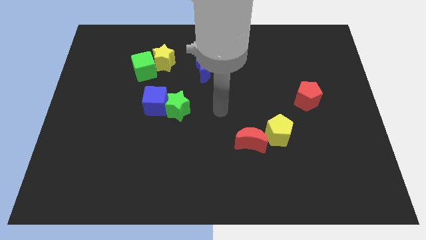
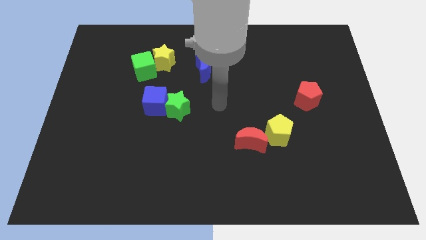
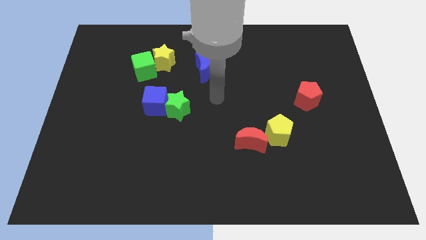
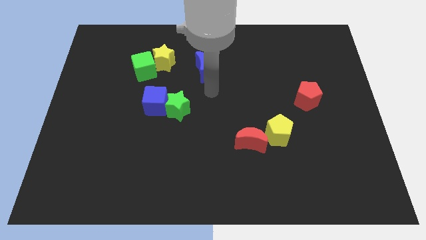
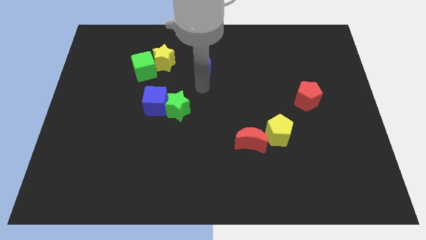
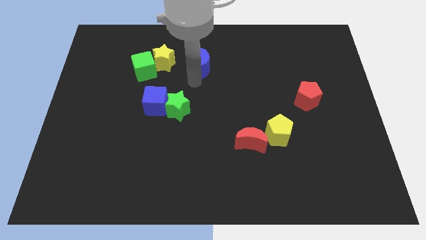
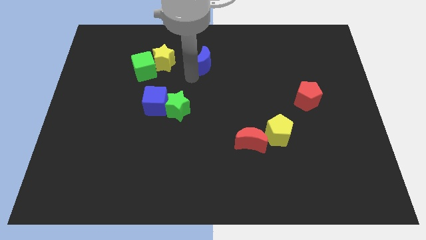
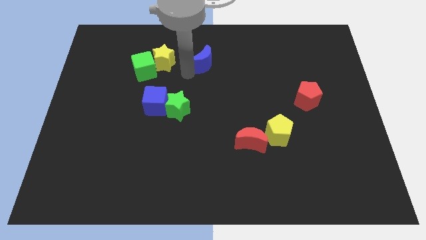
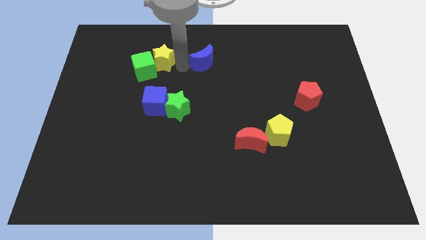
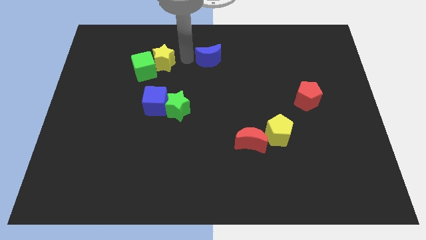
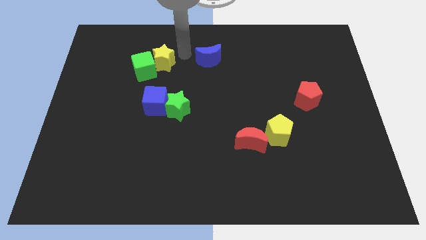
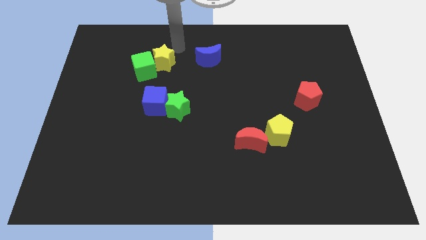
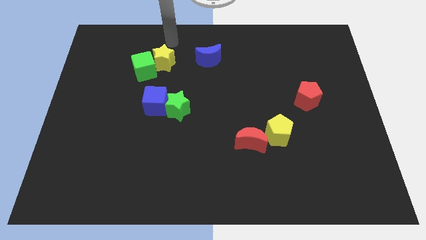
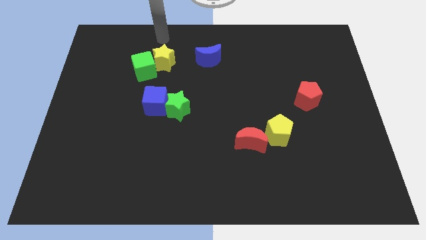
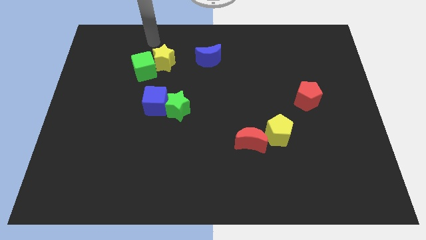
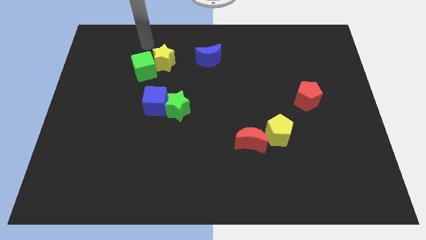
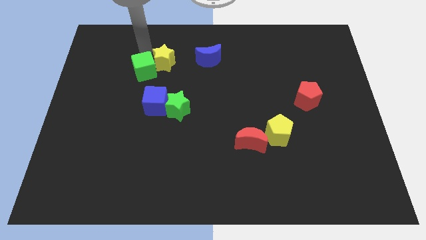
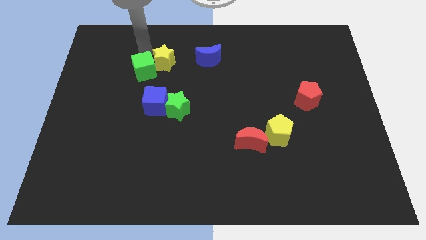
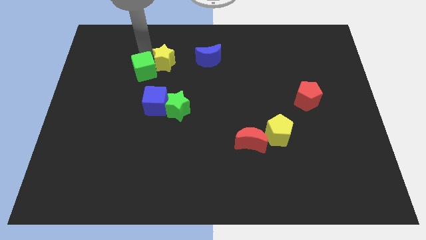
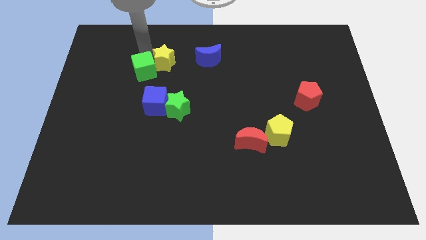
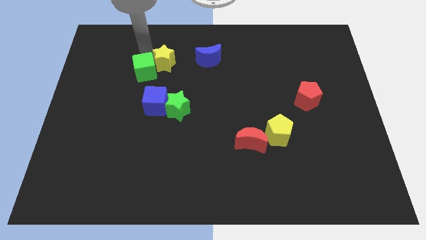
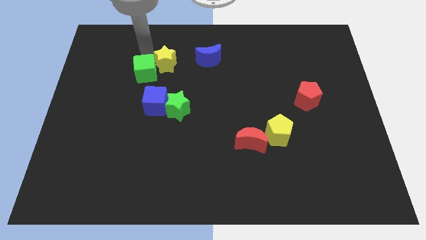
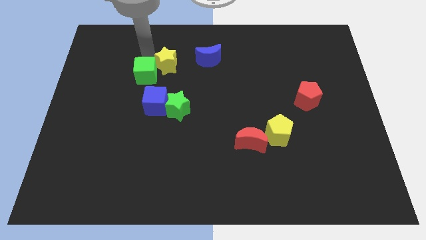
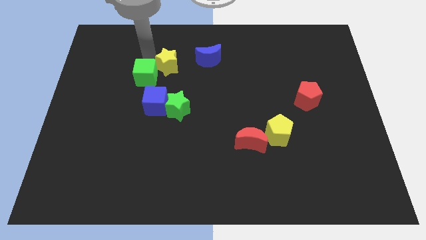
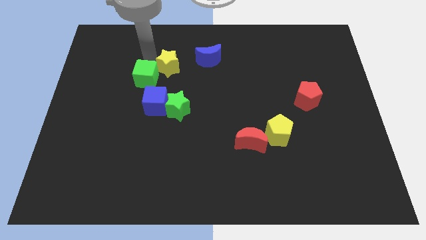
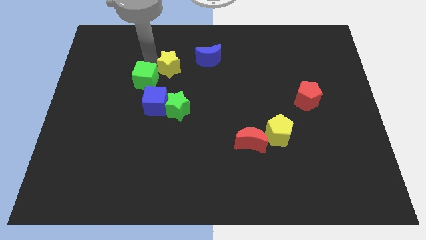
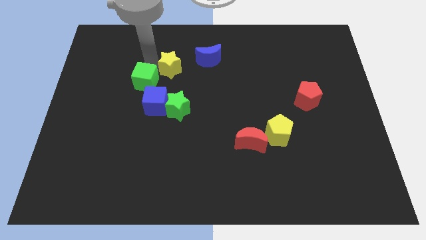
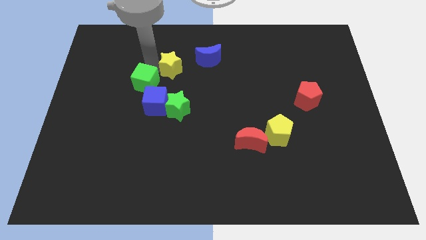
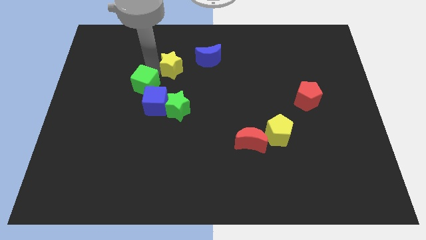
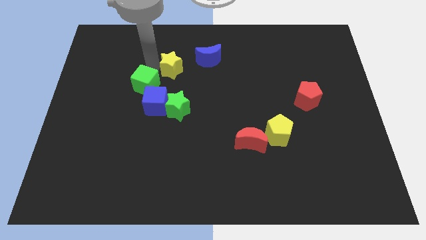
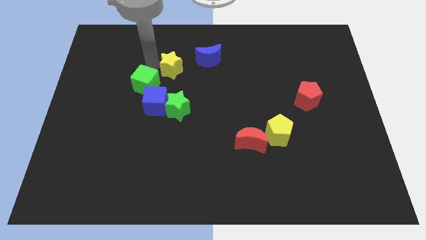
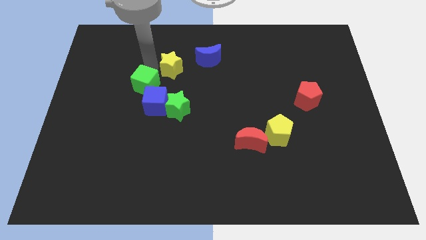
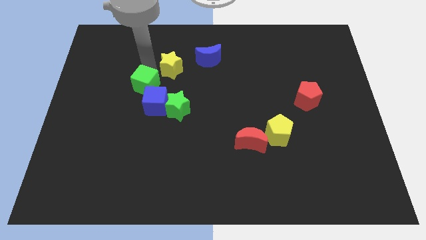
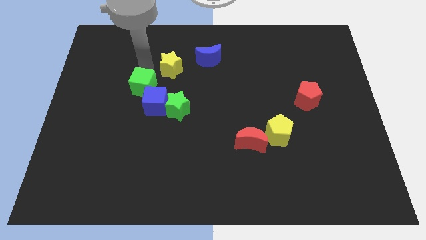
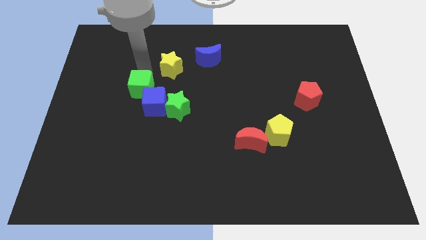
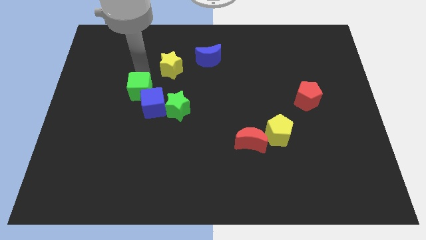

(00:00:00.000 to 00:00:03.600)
slightly push the green cube downwards

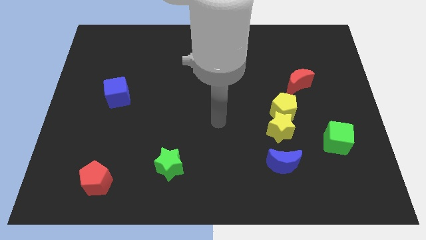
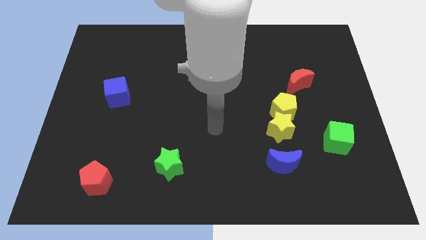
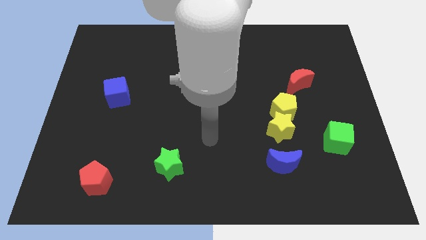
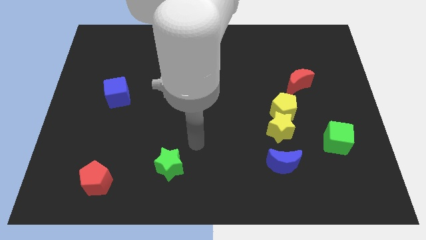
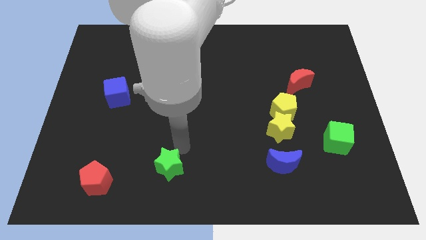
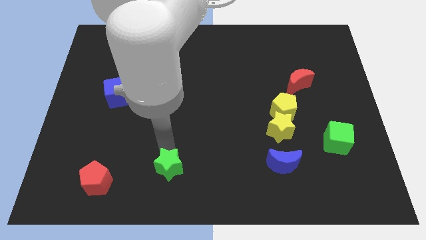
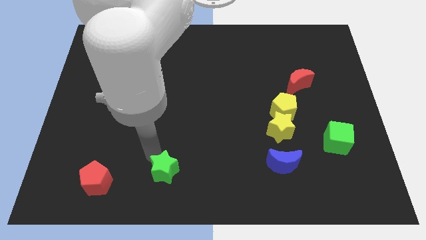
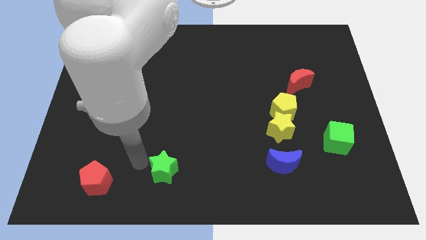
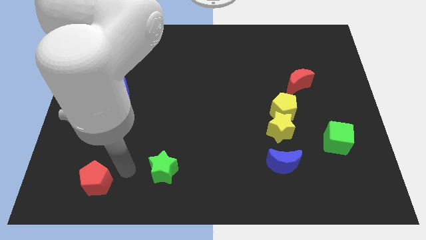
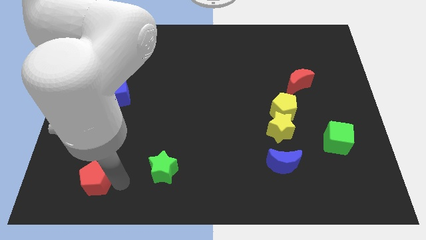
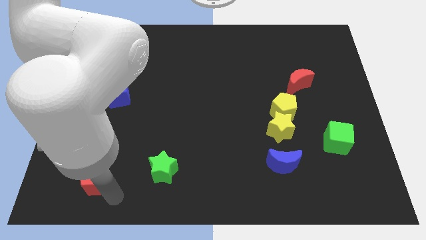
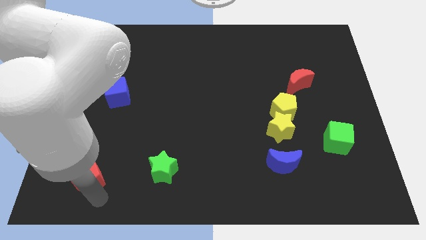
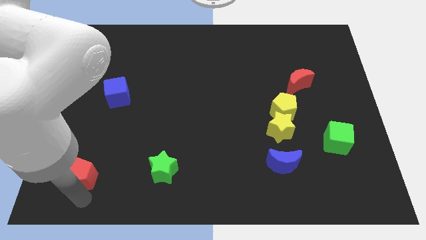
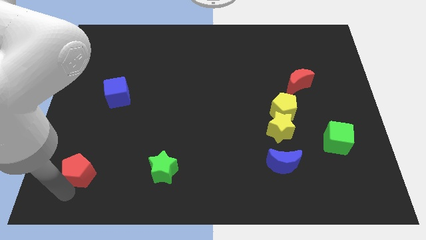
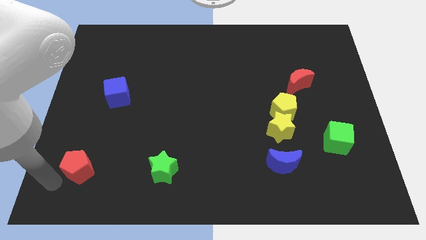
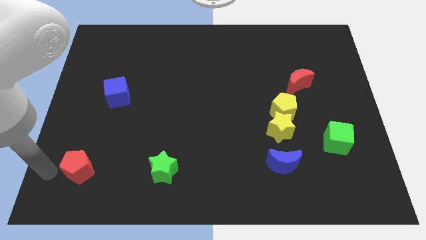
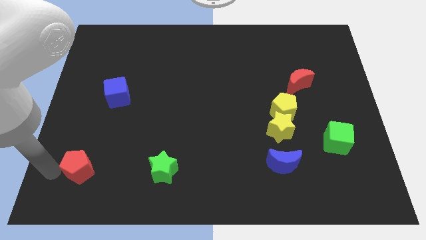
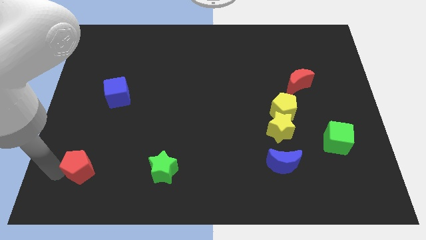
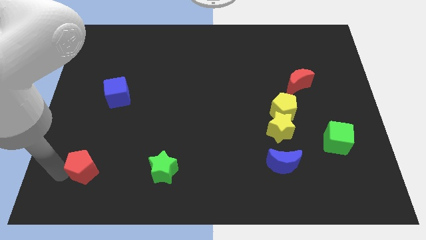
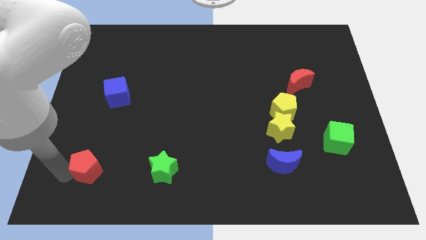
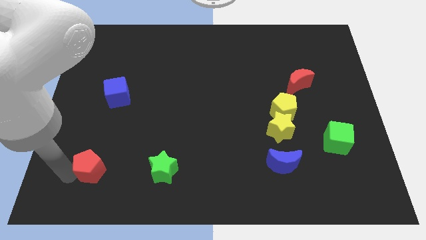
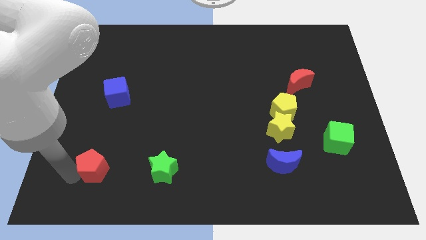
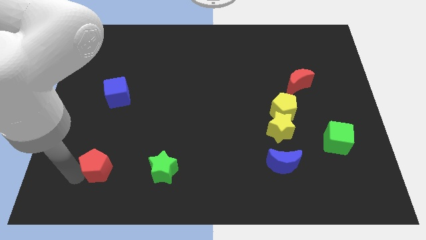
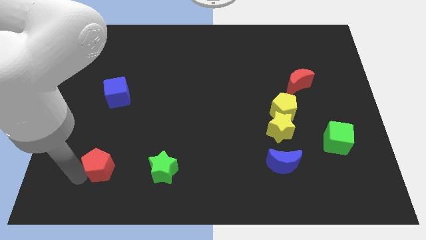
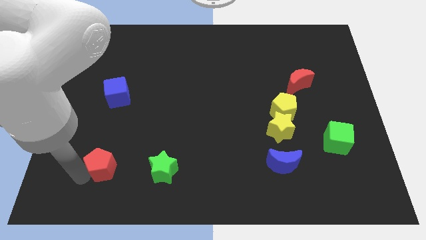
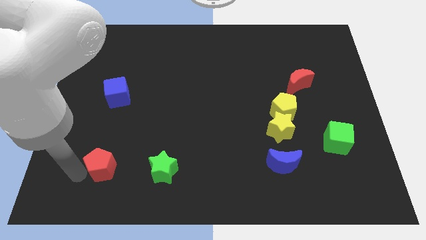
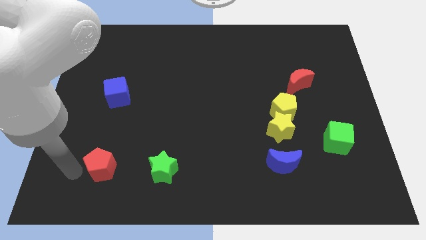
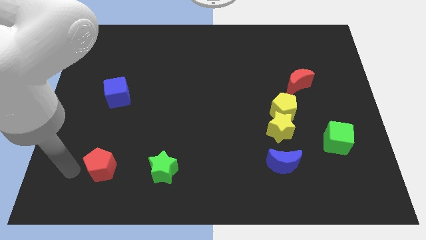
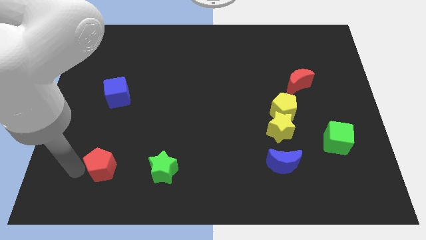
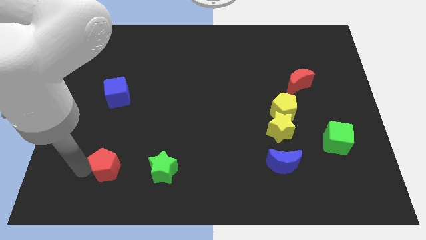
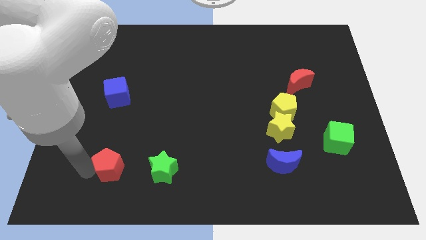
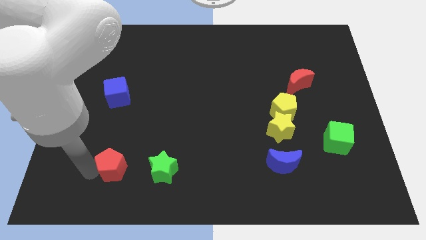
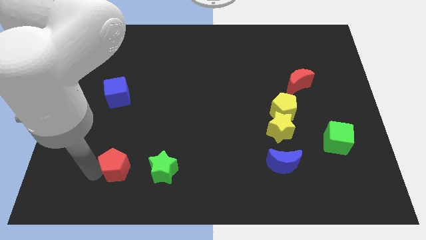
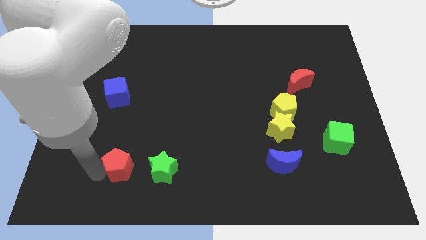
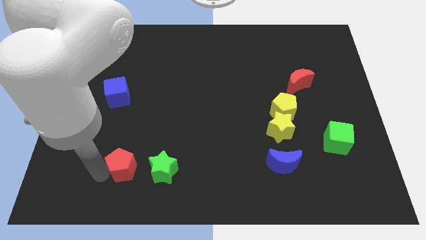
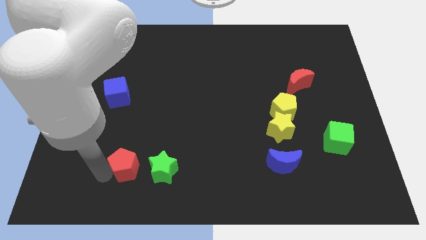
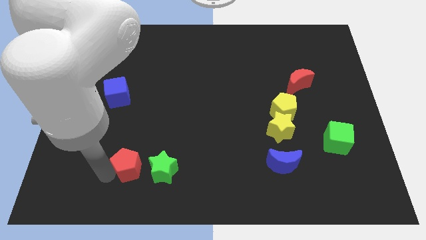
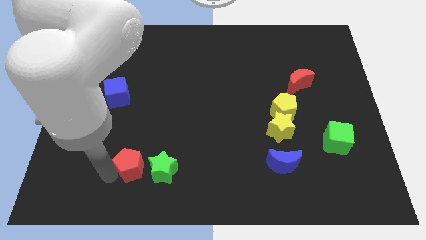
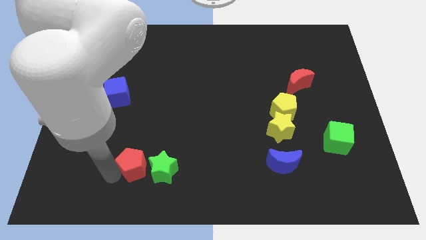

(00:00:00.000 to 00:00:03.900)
slightly push the red pentagon diagonally up and to the right

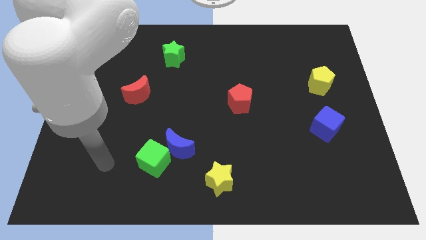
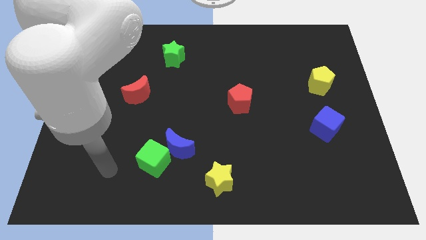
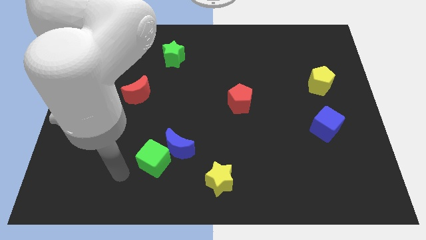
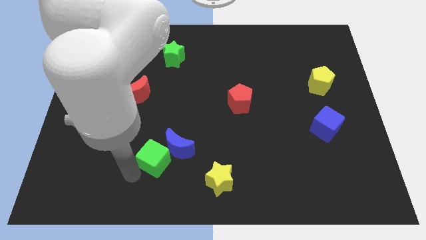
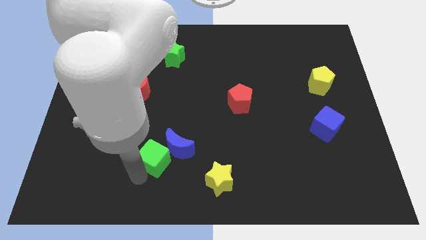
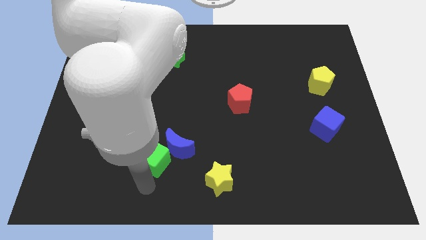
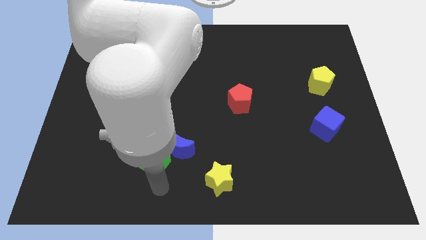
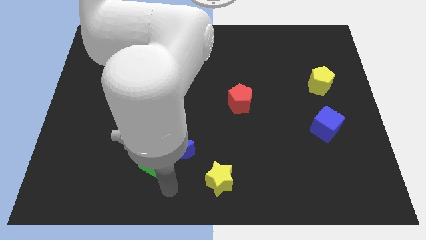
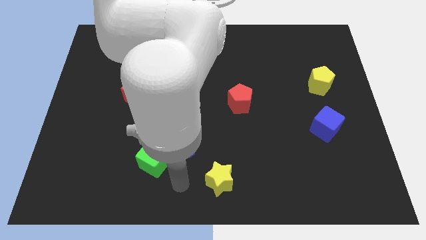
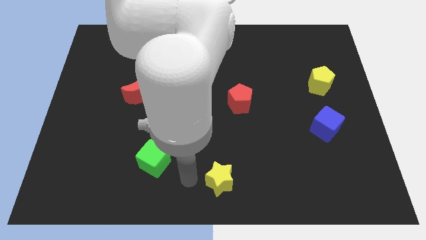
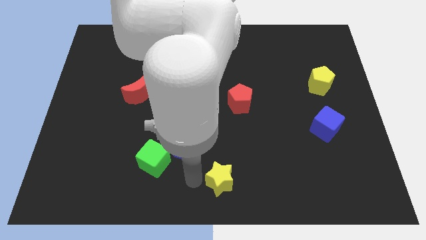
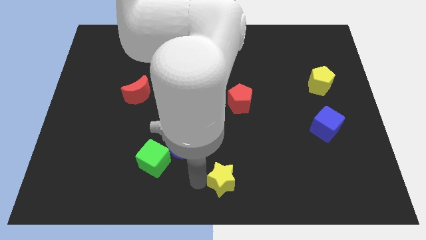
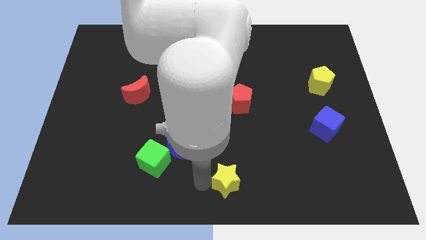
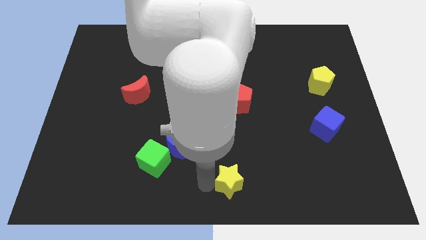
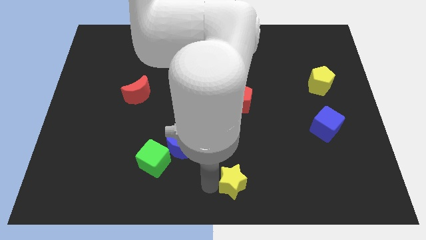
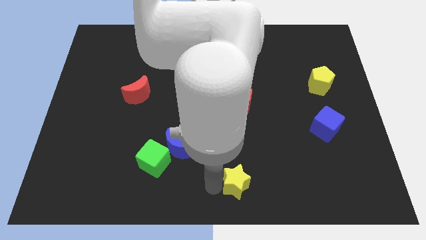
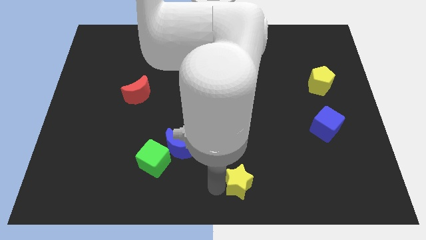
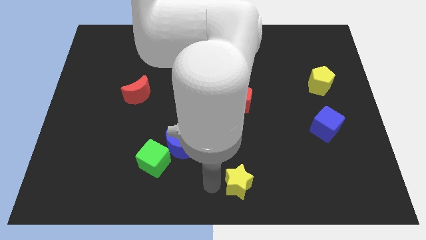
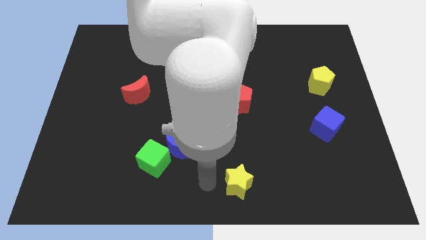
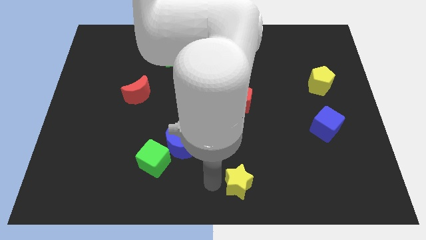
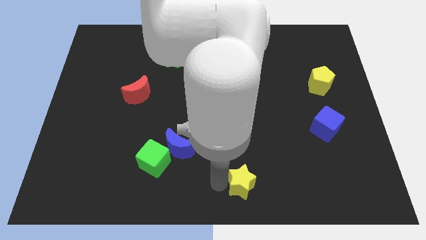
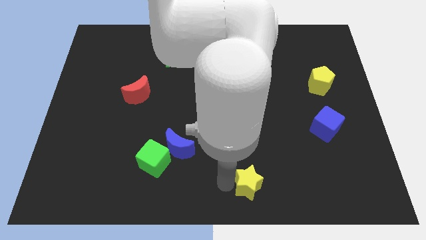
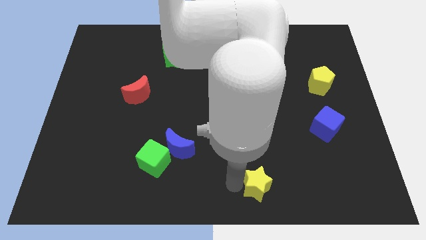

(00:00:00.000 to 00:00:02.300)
push the yellow star to the right a little
